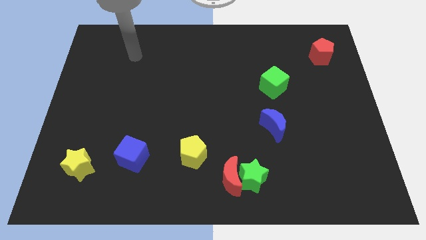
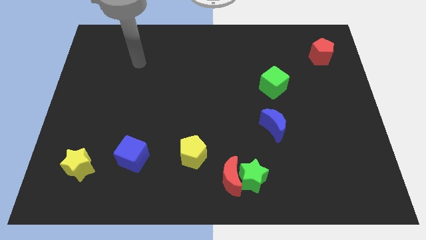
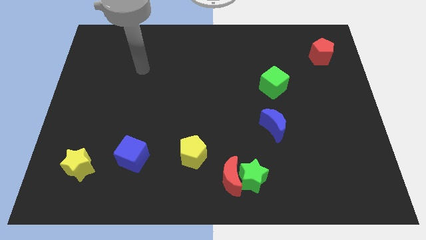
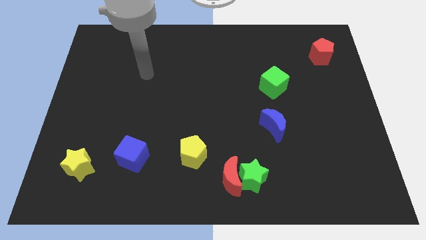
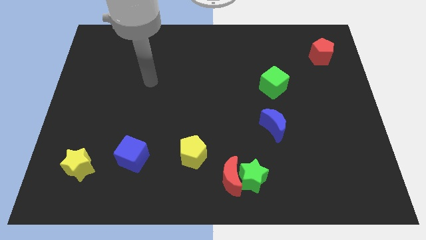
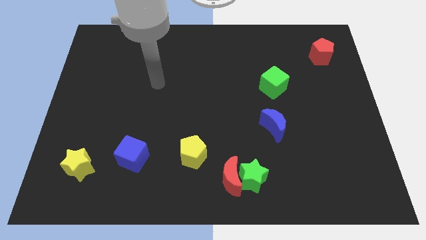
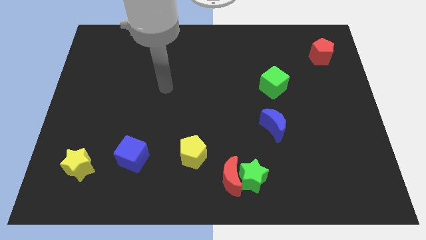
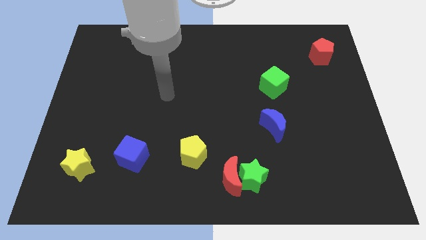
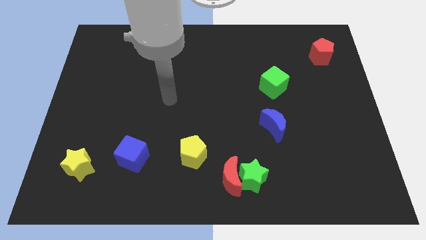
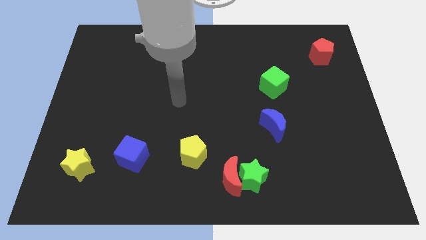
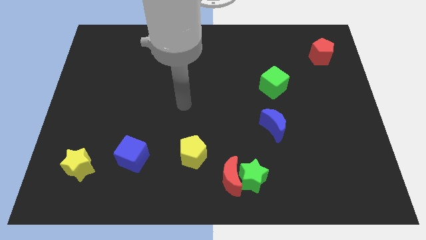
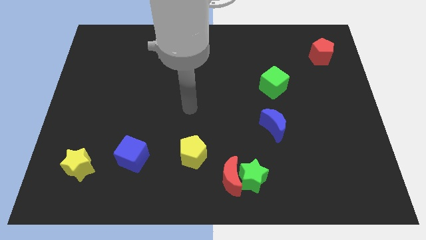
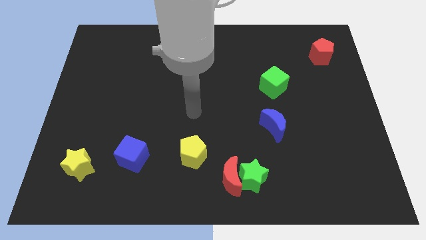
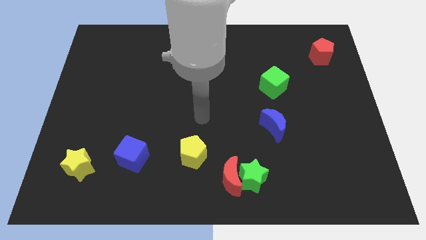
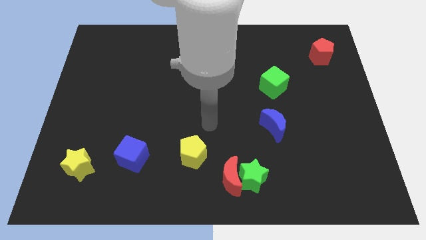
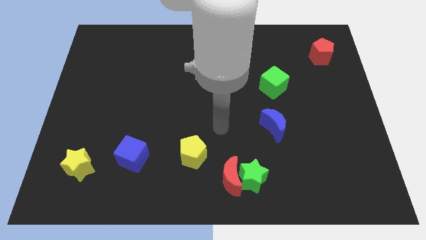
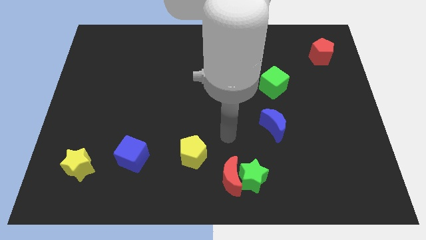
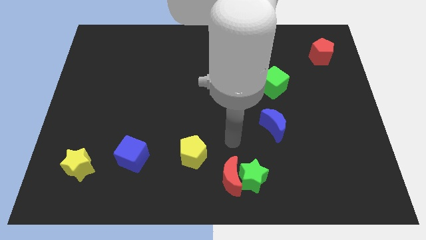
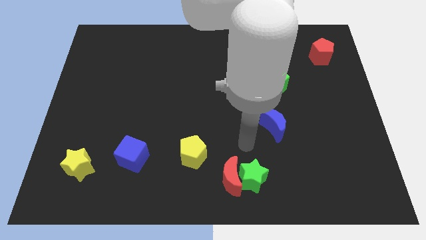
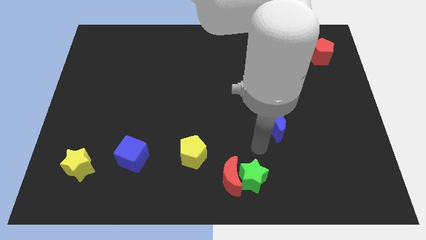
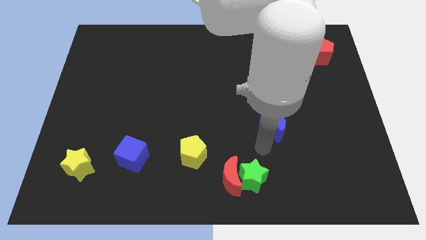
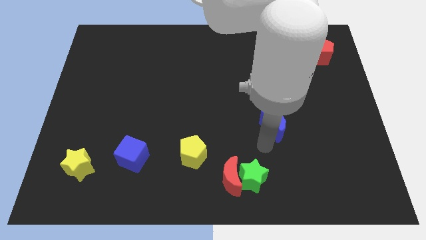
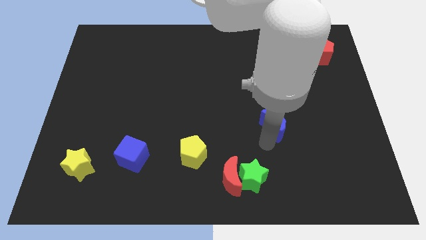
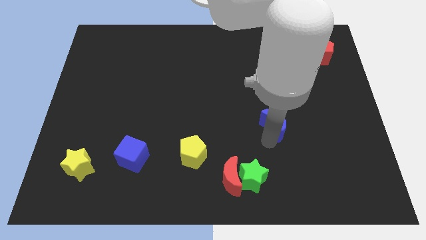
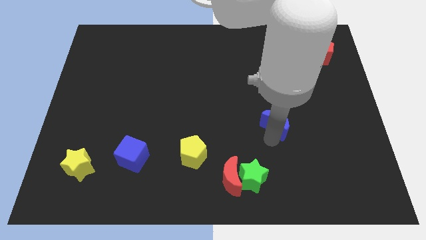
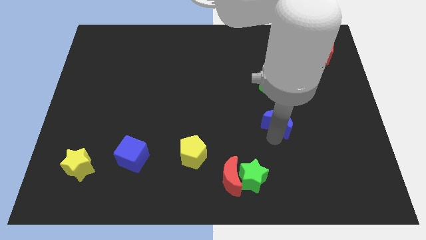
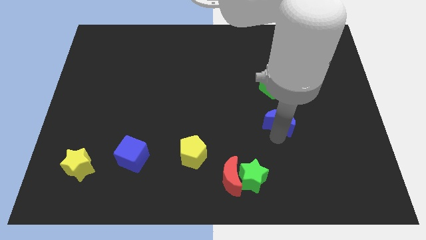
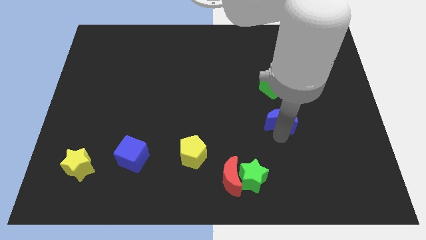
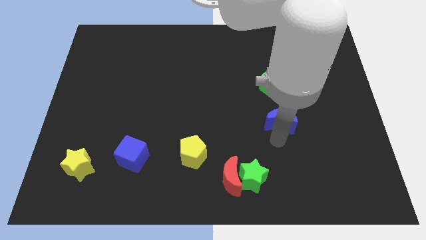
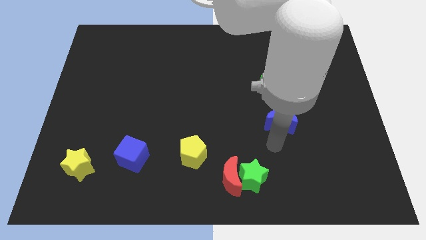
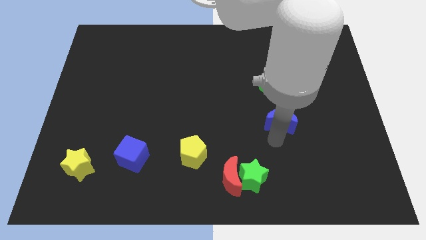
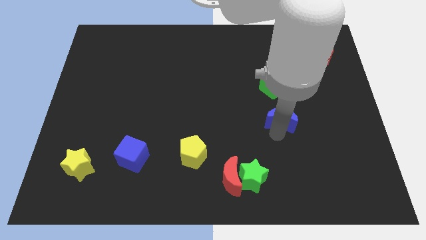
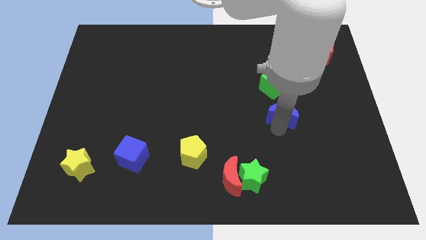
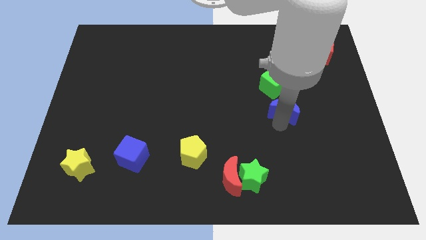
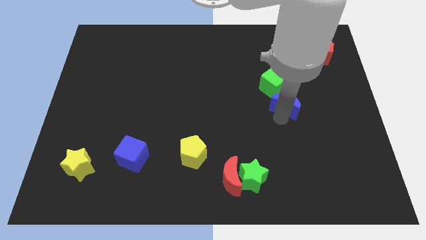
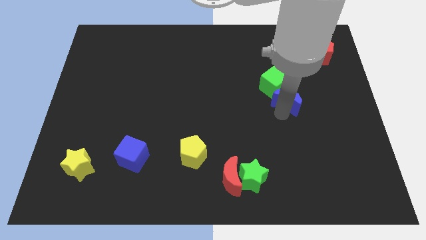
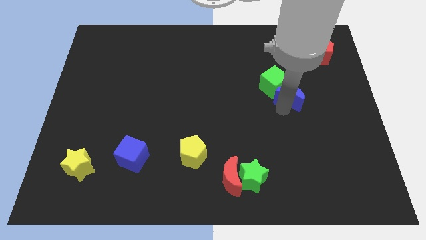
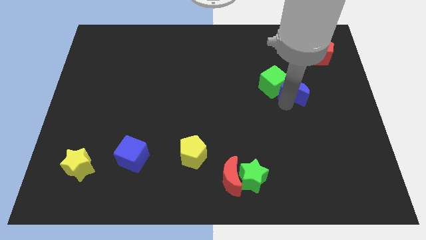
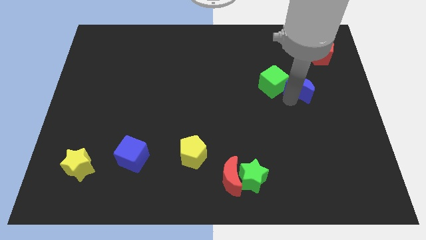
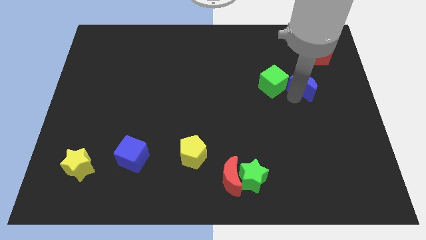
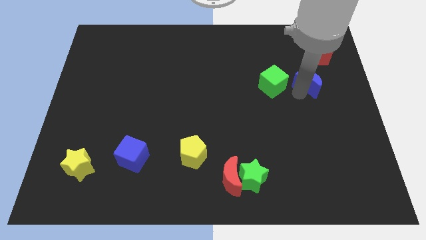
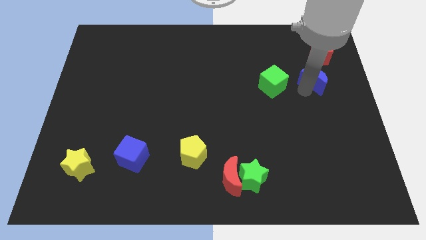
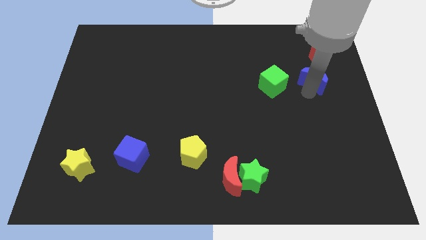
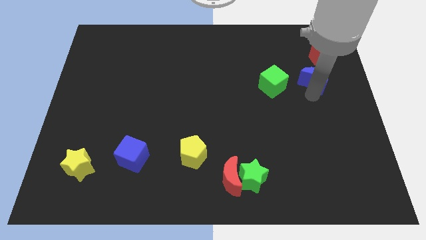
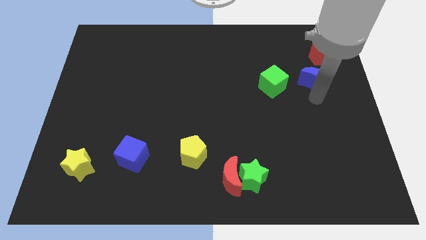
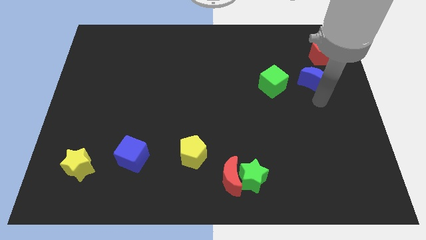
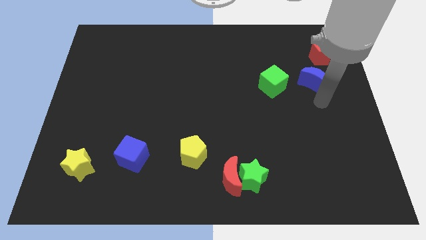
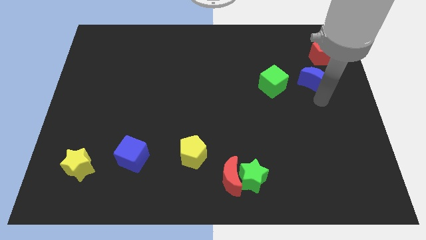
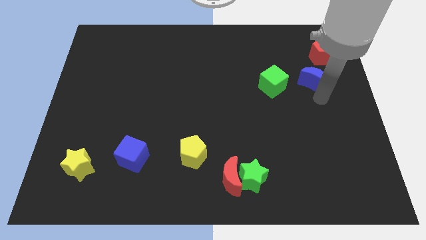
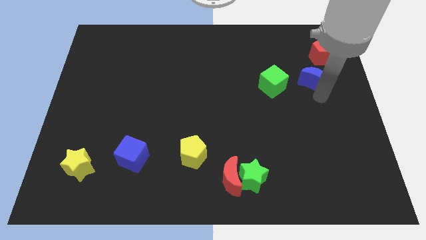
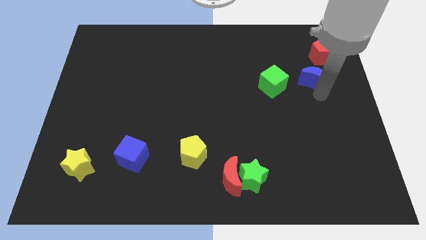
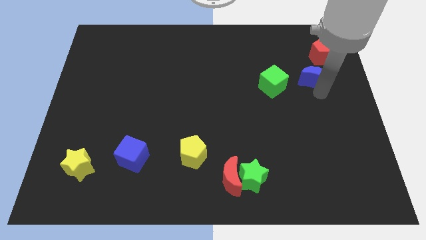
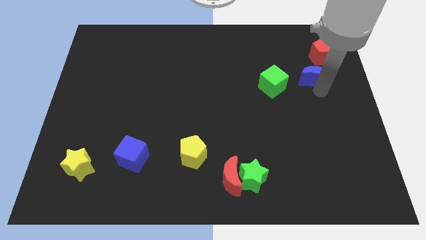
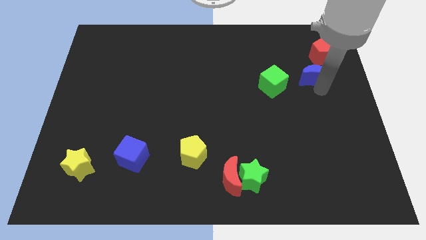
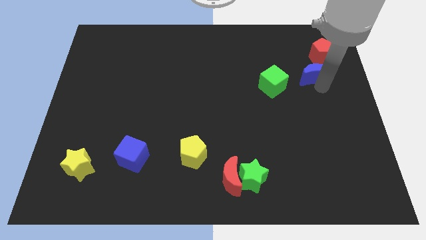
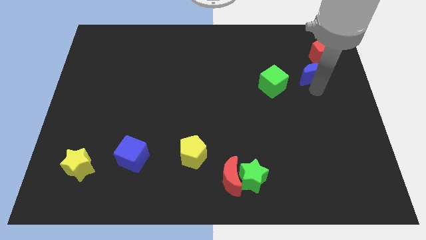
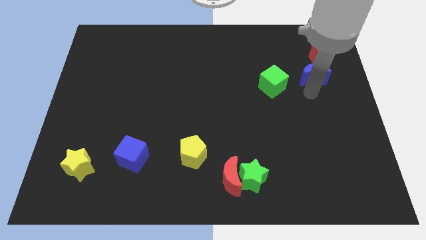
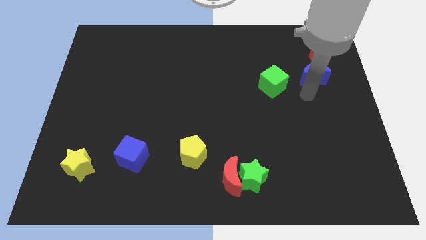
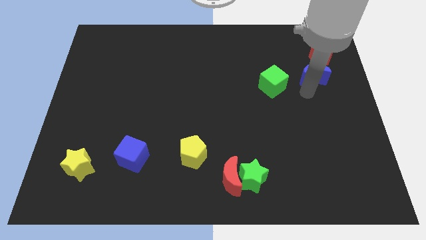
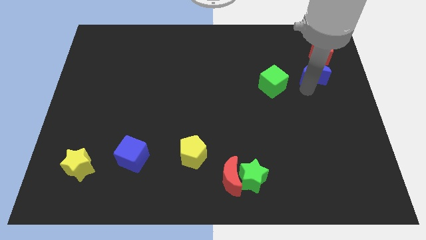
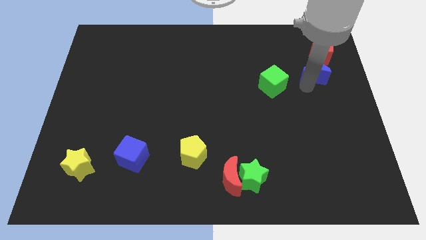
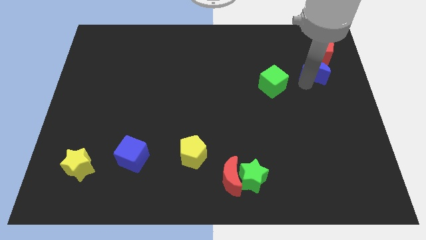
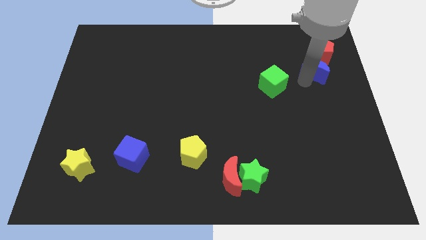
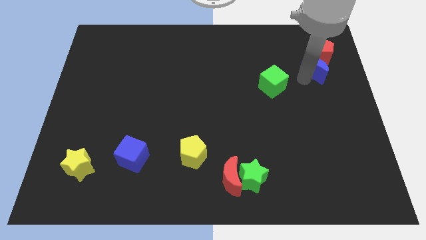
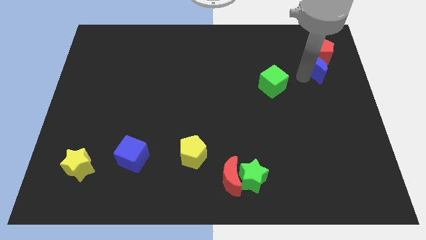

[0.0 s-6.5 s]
put the blue moon towards the red pentagon

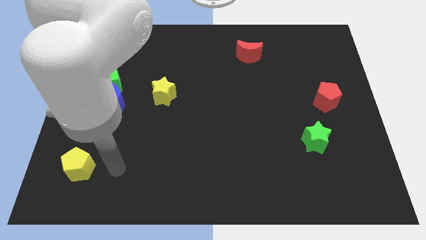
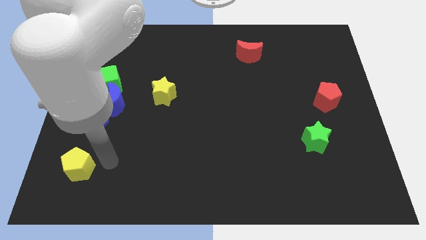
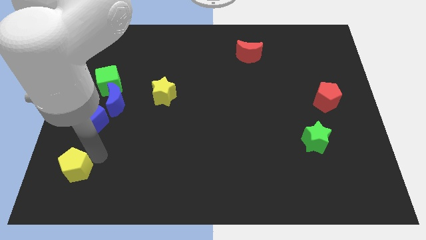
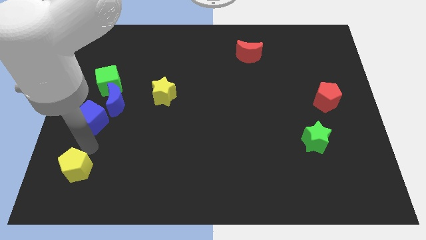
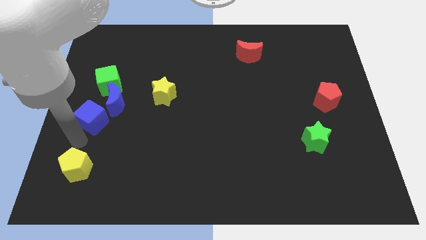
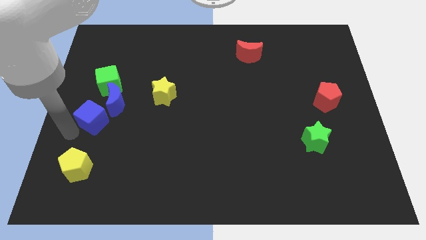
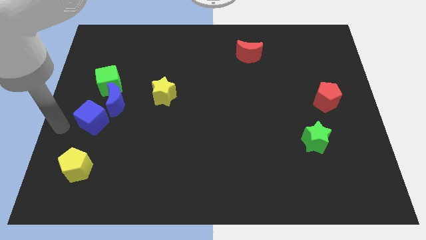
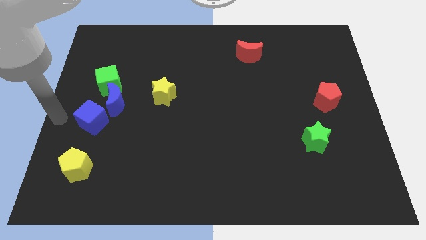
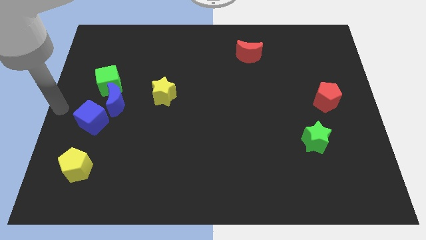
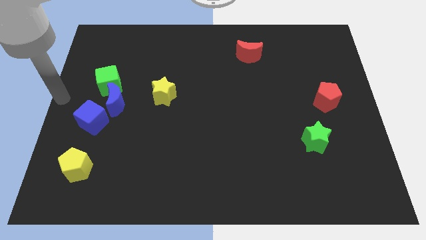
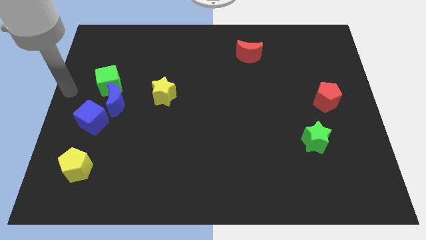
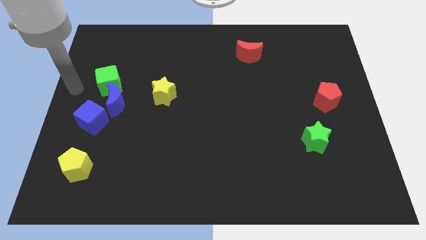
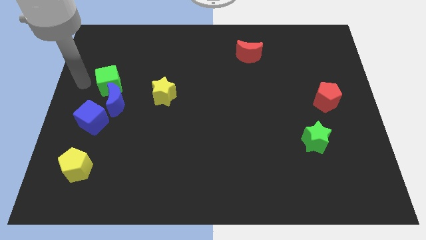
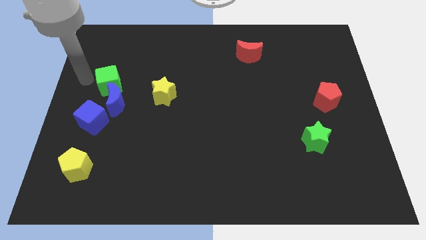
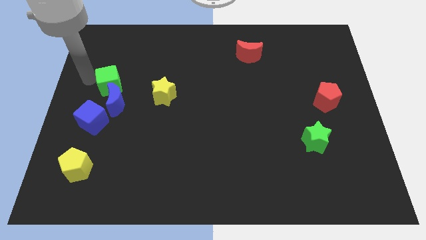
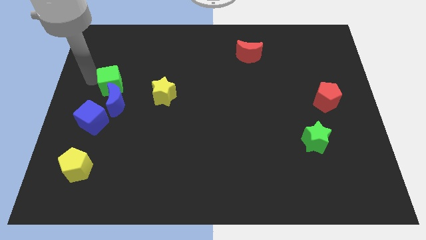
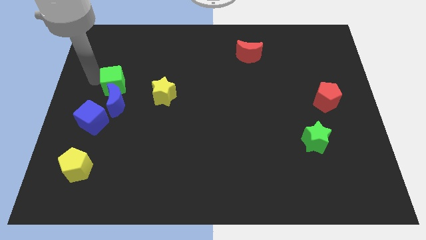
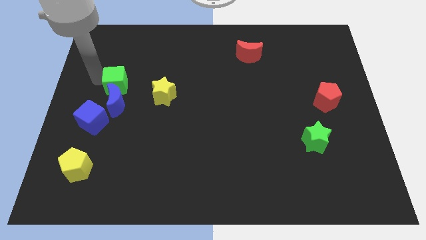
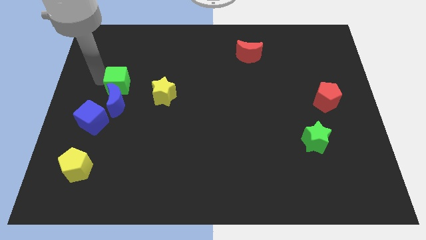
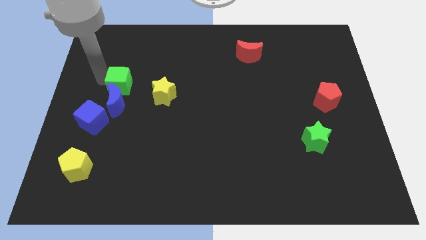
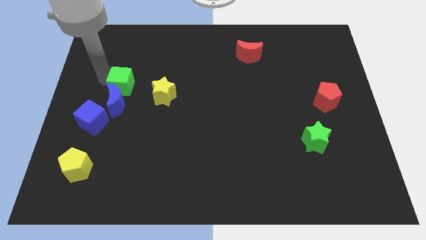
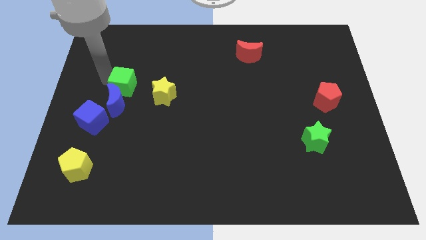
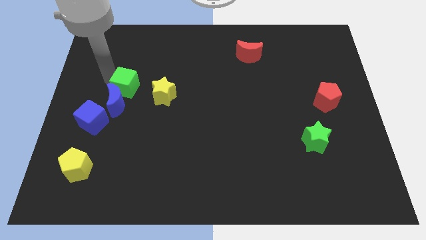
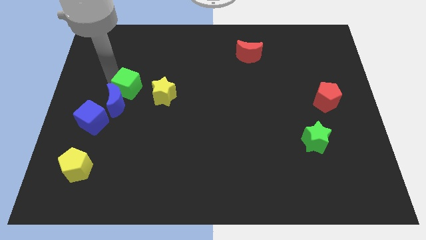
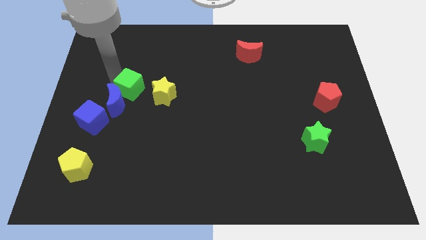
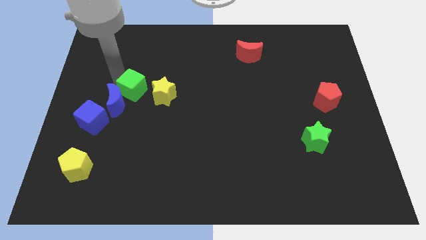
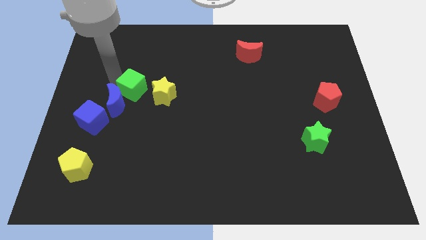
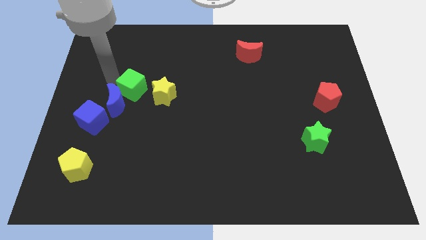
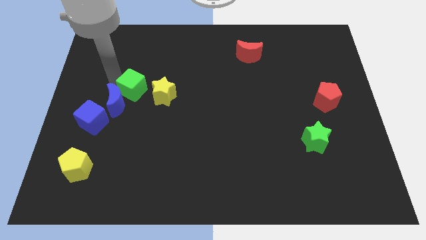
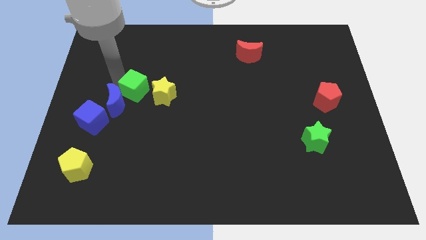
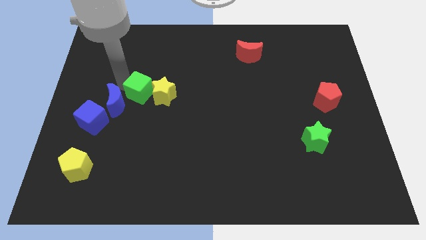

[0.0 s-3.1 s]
push the green cube towards the yellow star
